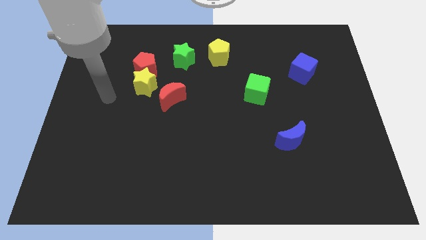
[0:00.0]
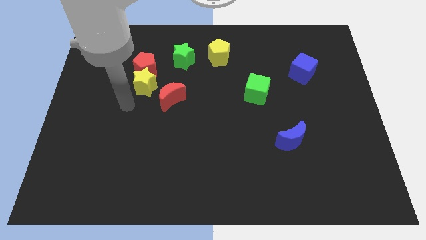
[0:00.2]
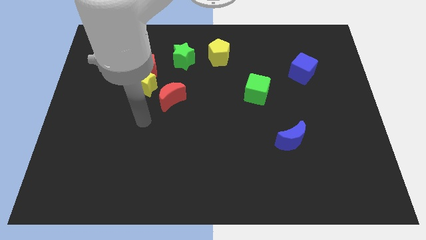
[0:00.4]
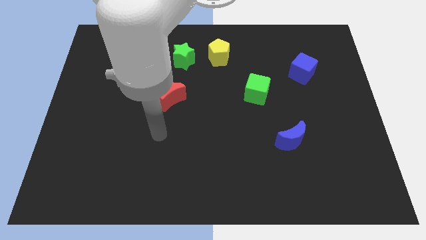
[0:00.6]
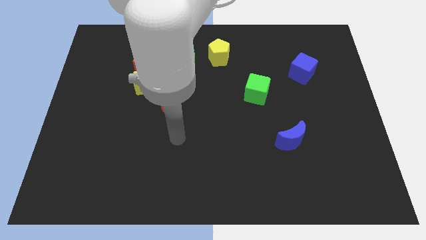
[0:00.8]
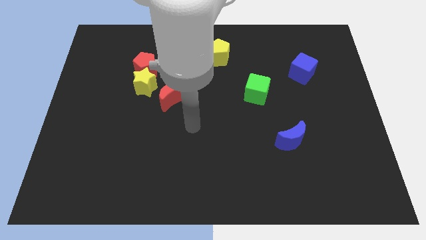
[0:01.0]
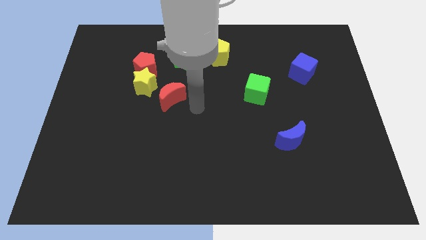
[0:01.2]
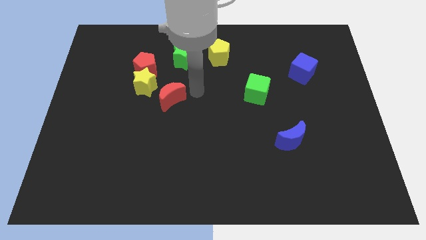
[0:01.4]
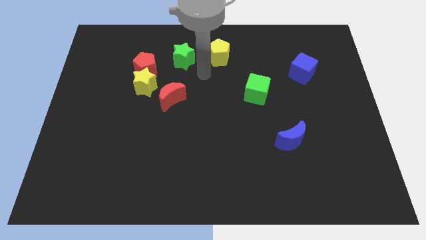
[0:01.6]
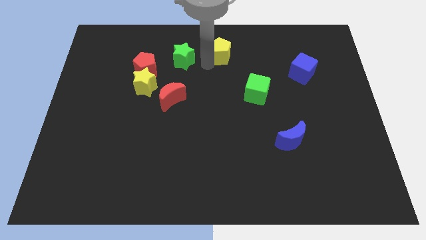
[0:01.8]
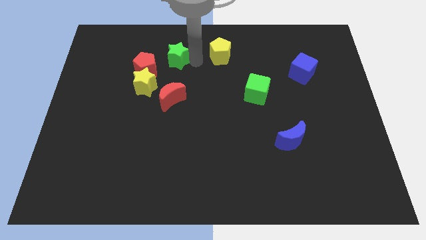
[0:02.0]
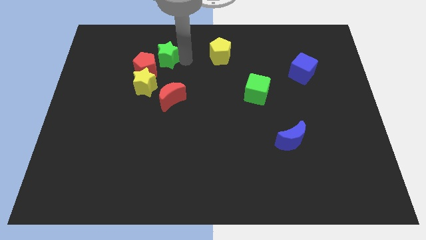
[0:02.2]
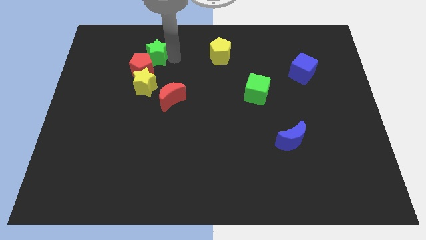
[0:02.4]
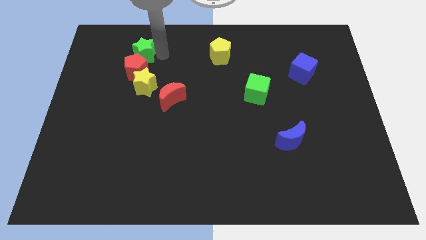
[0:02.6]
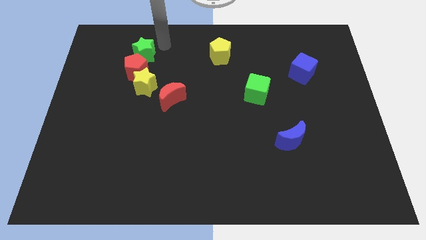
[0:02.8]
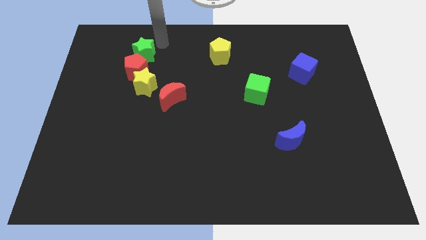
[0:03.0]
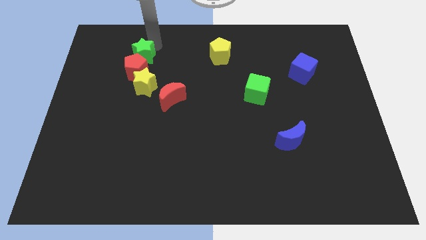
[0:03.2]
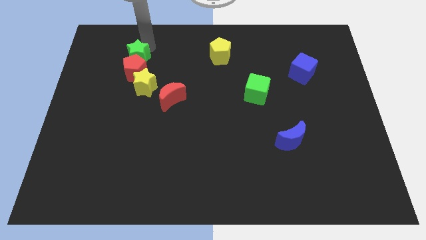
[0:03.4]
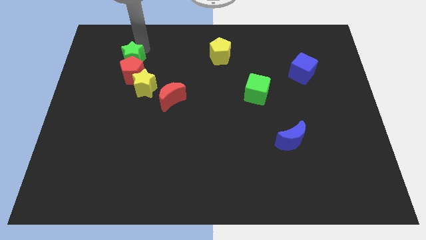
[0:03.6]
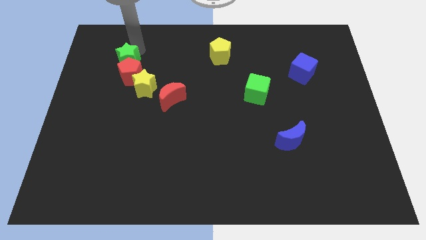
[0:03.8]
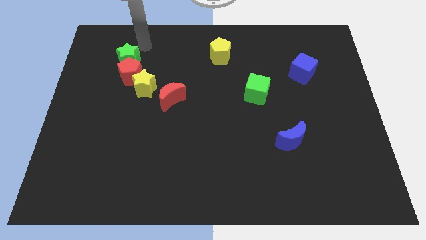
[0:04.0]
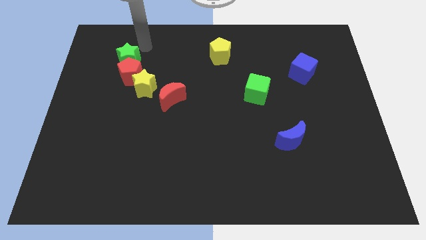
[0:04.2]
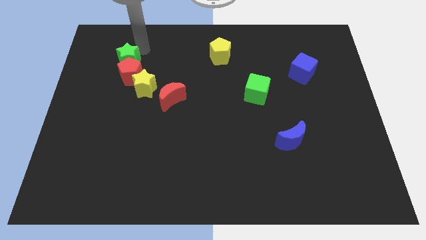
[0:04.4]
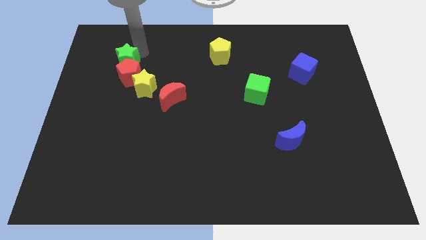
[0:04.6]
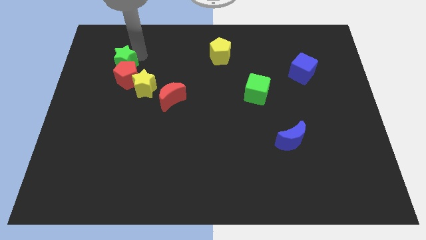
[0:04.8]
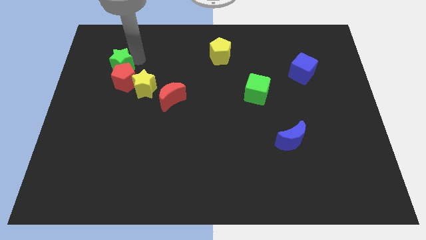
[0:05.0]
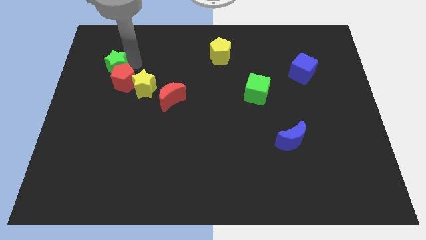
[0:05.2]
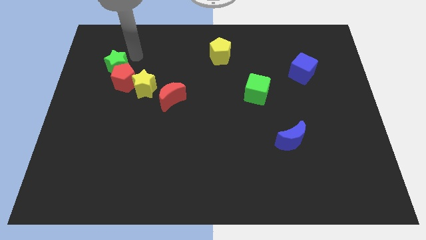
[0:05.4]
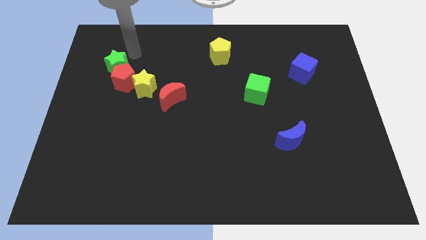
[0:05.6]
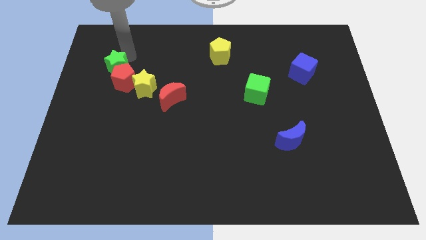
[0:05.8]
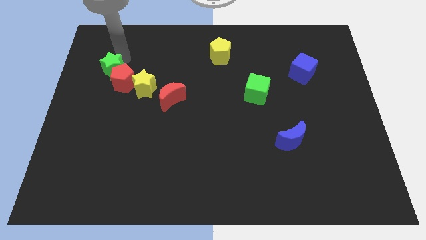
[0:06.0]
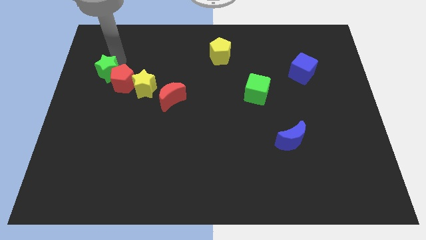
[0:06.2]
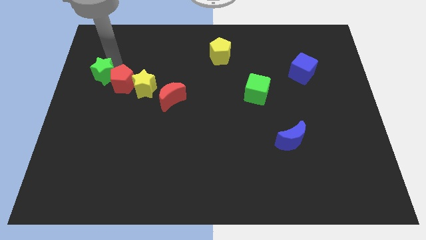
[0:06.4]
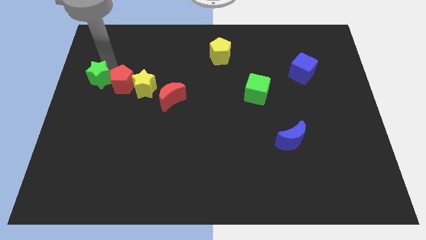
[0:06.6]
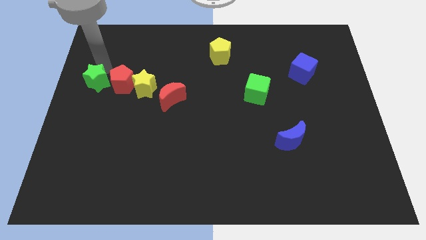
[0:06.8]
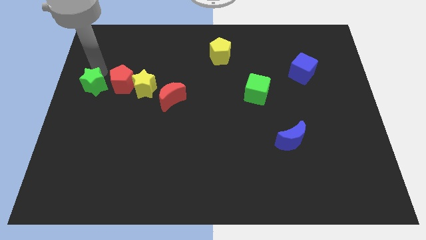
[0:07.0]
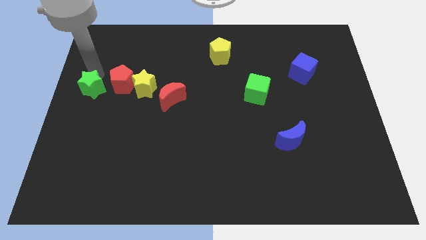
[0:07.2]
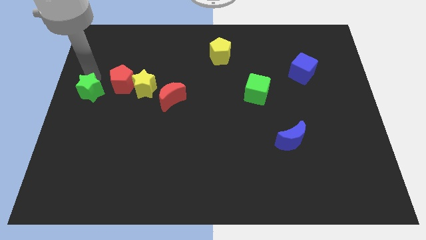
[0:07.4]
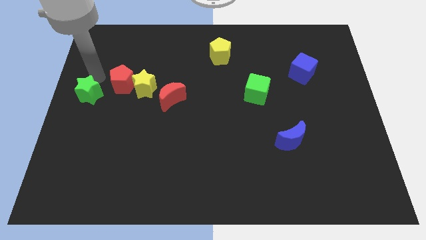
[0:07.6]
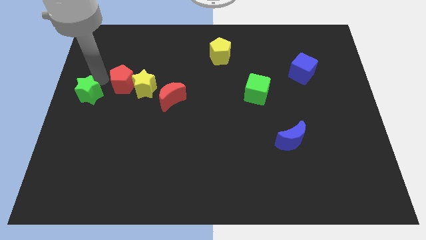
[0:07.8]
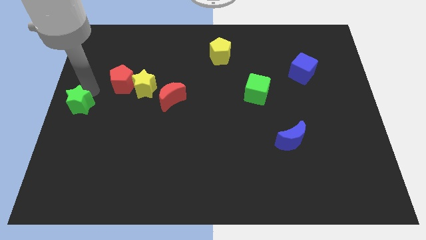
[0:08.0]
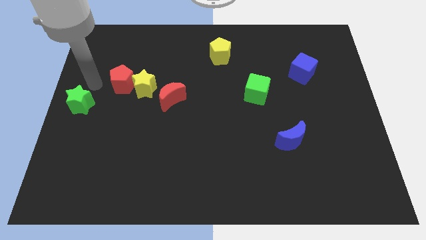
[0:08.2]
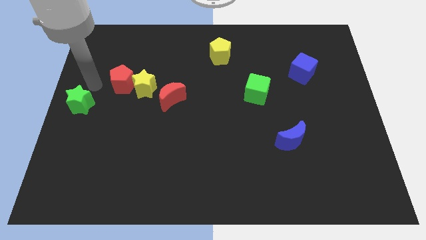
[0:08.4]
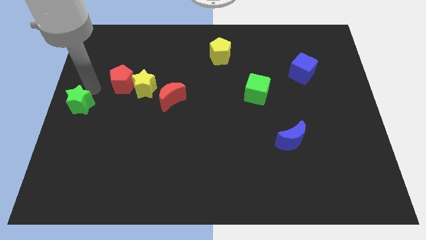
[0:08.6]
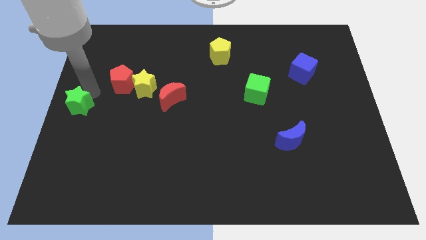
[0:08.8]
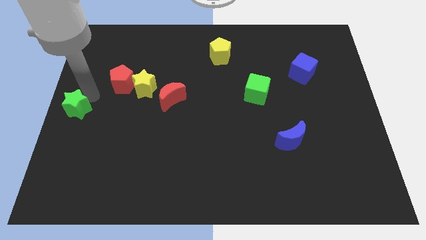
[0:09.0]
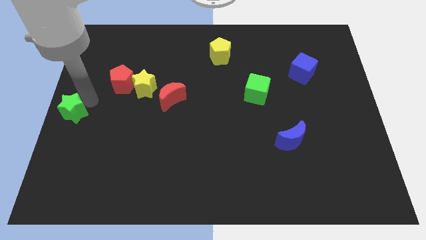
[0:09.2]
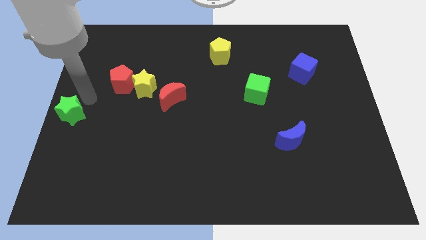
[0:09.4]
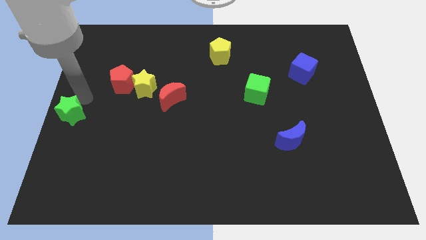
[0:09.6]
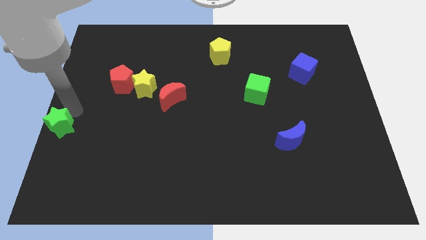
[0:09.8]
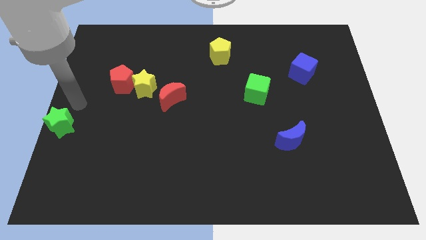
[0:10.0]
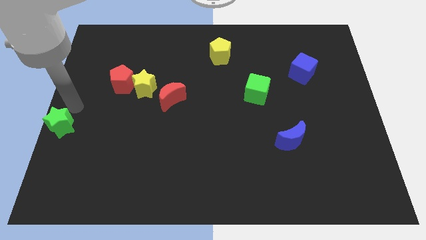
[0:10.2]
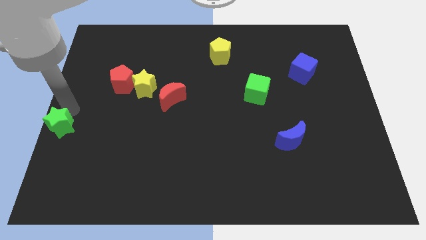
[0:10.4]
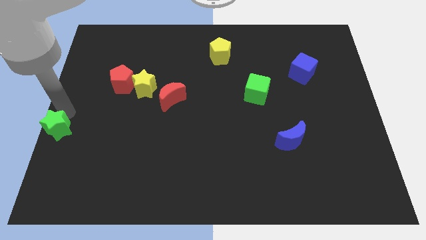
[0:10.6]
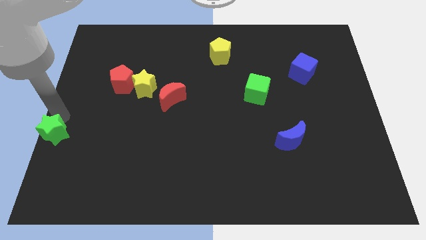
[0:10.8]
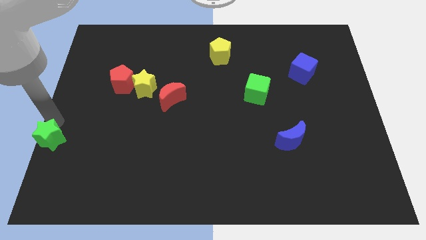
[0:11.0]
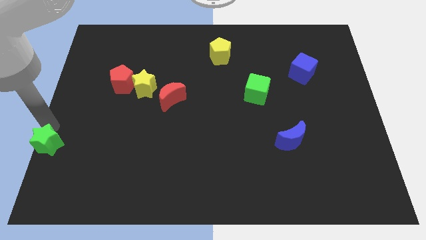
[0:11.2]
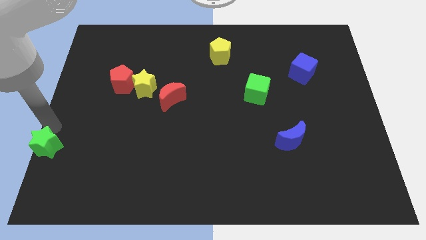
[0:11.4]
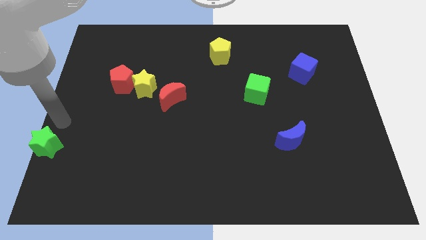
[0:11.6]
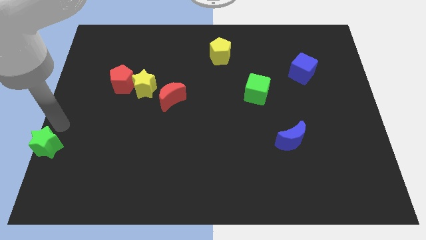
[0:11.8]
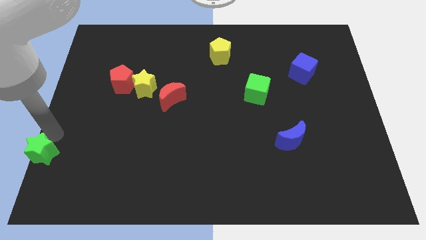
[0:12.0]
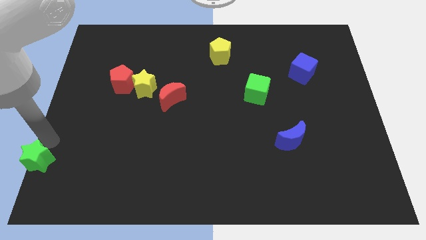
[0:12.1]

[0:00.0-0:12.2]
move the green star to the bottom left of the board

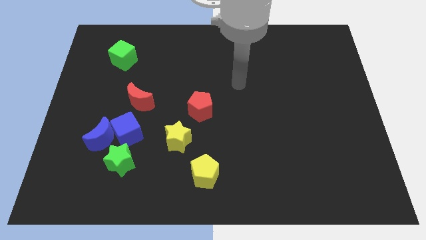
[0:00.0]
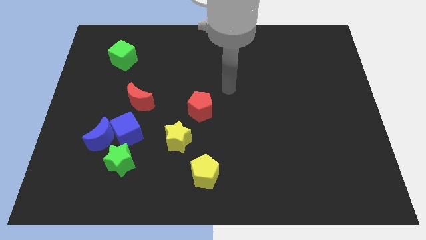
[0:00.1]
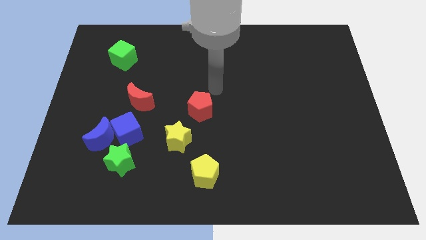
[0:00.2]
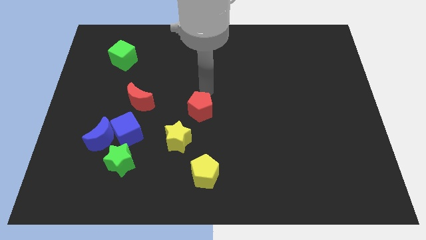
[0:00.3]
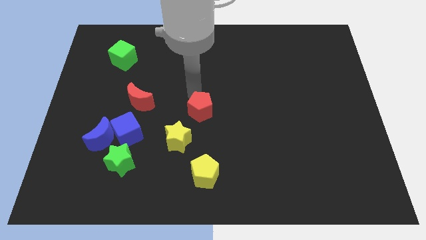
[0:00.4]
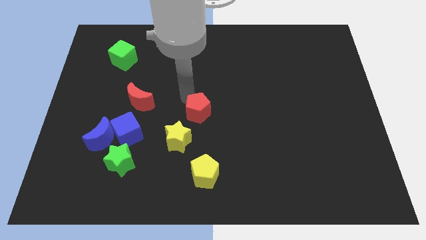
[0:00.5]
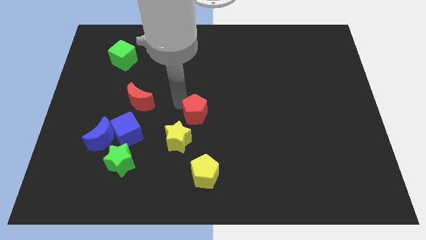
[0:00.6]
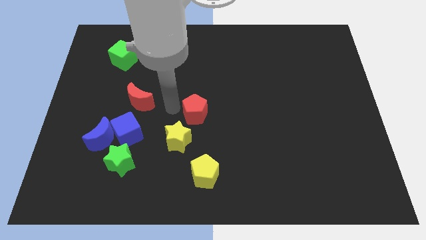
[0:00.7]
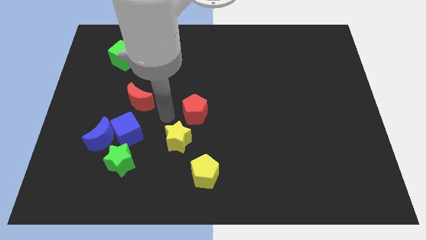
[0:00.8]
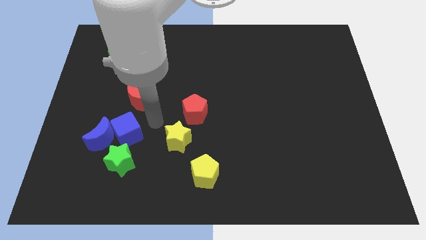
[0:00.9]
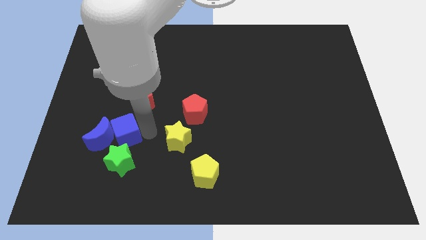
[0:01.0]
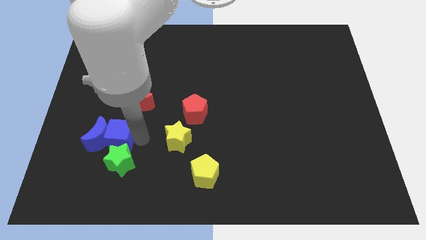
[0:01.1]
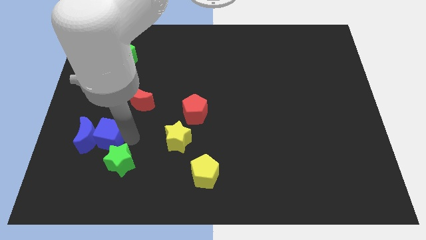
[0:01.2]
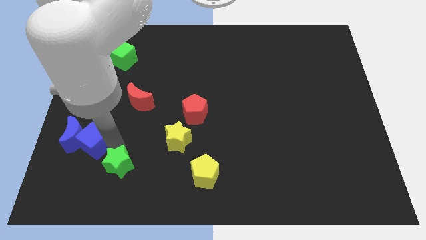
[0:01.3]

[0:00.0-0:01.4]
push the blue moon to the left side
